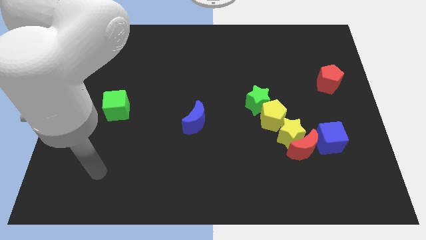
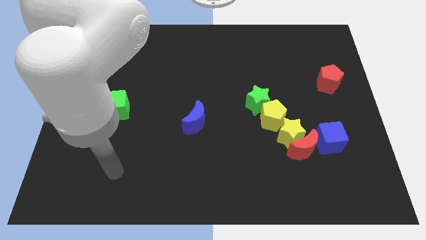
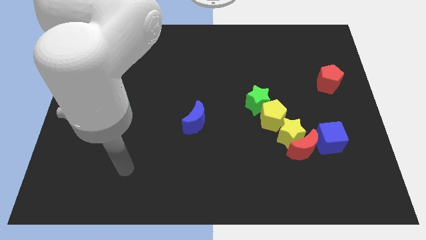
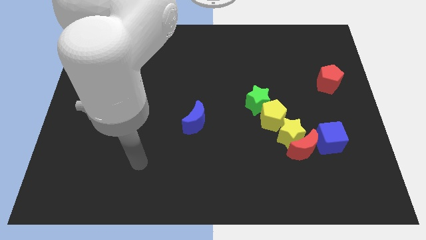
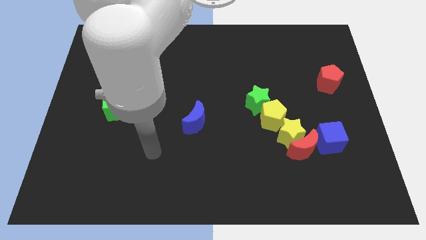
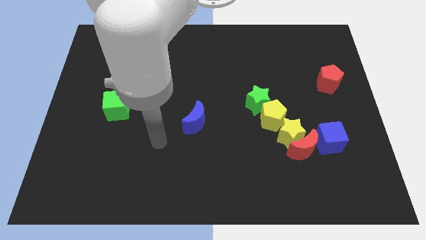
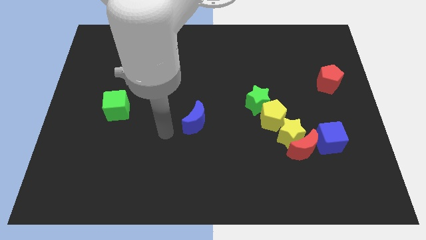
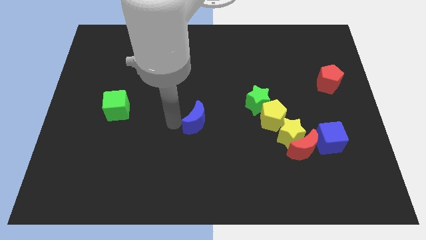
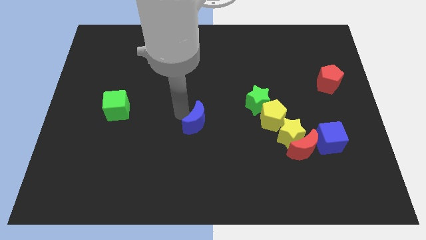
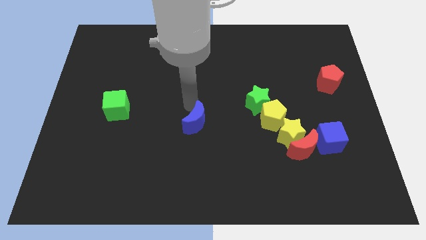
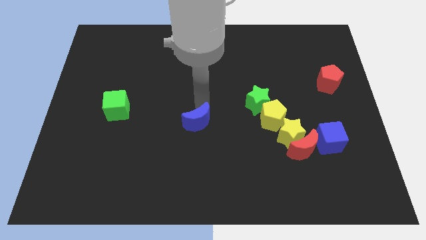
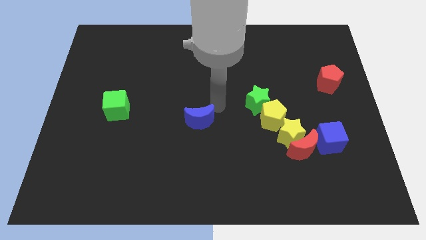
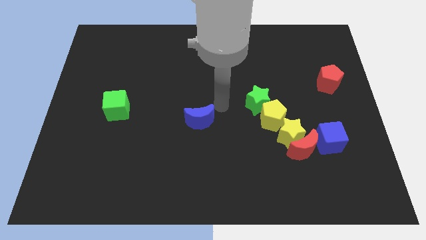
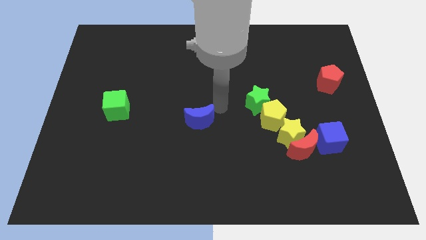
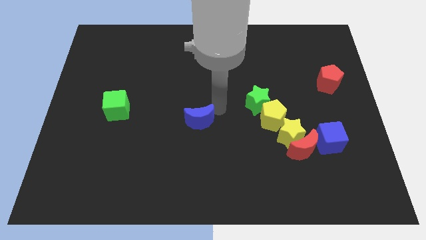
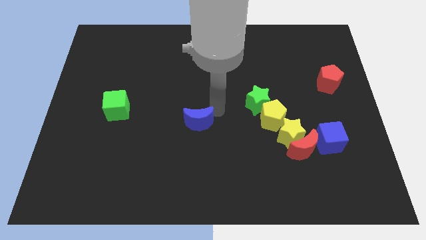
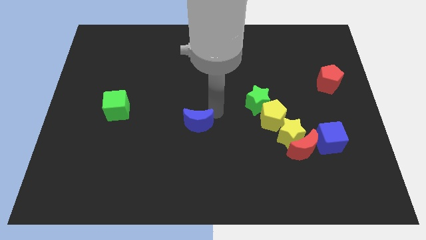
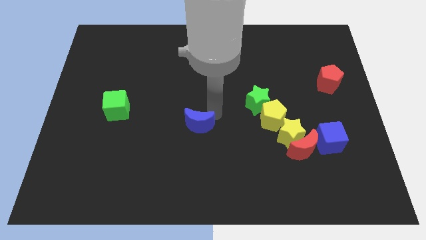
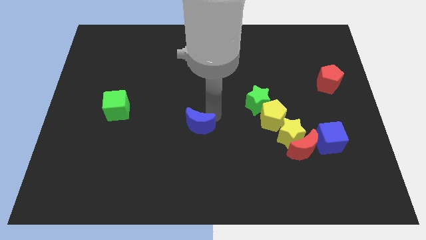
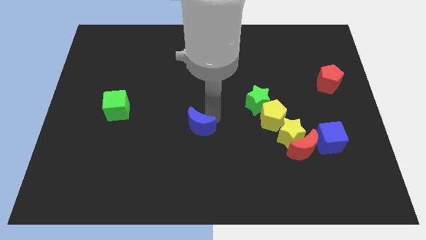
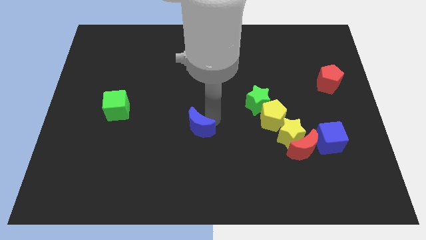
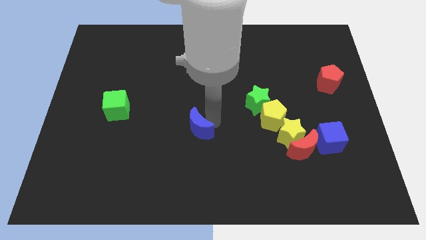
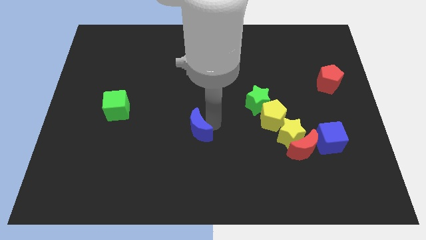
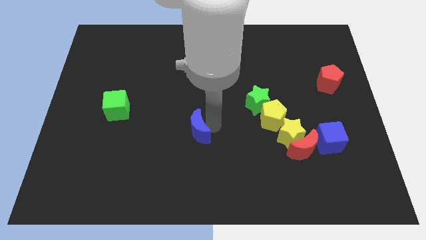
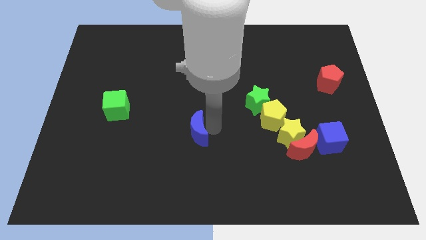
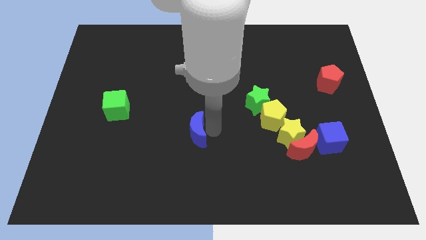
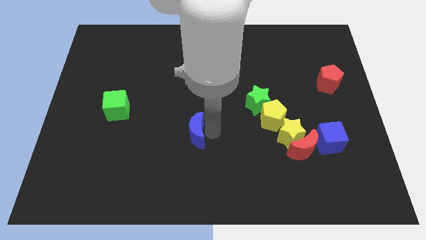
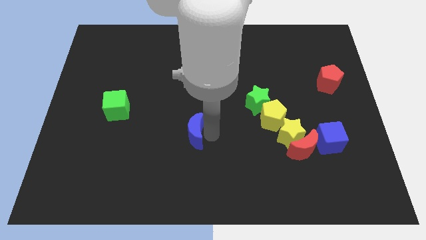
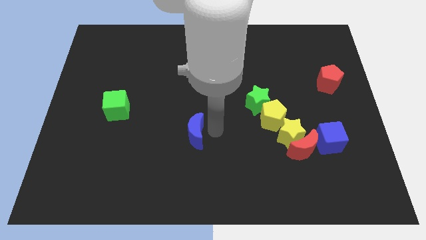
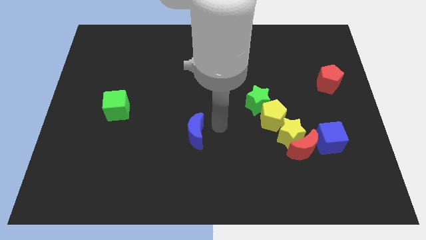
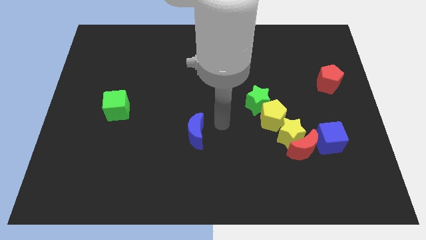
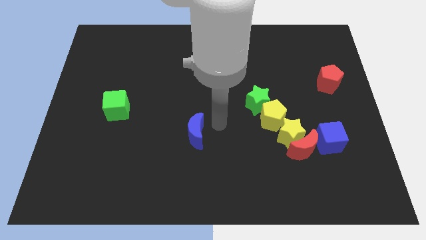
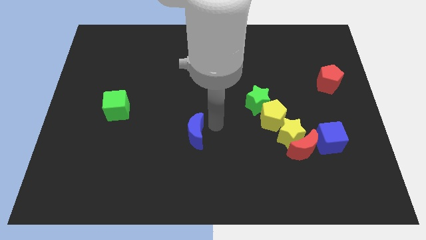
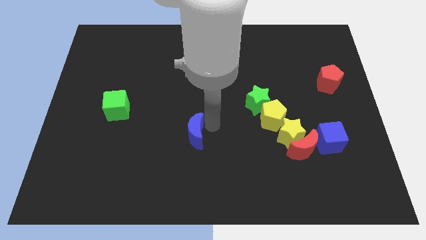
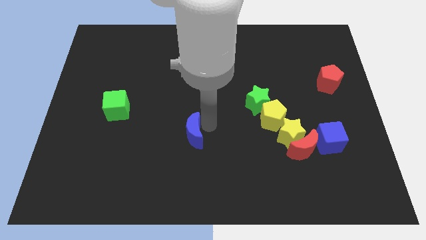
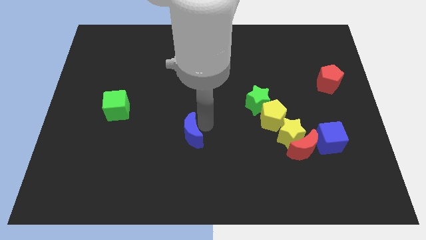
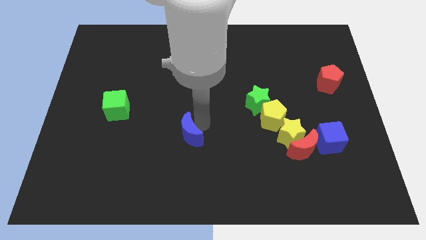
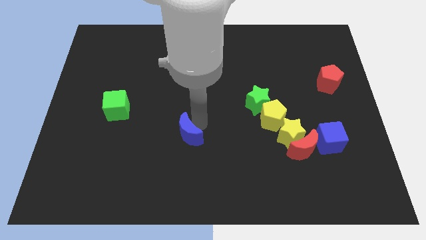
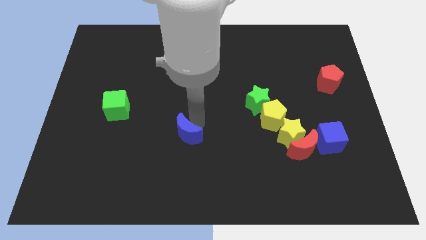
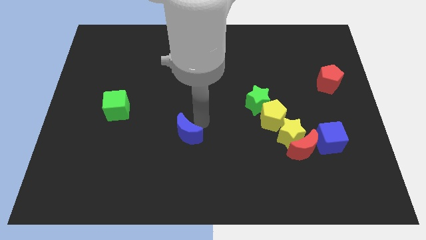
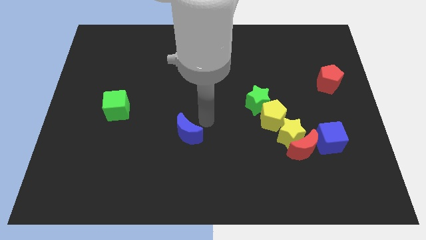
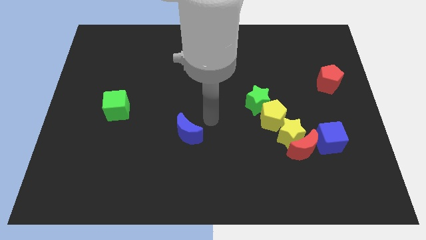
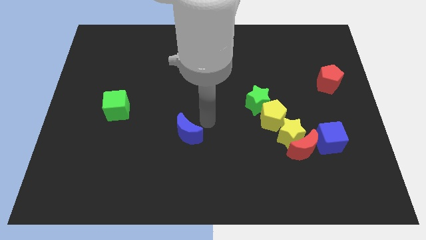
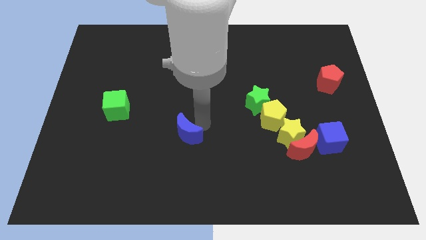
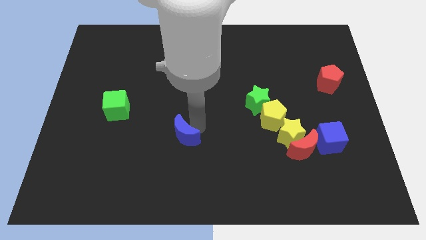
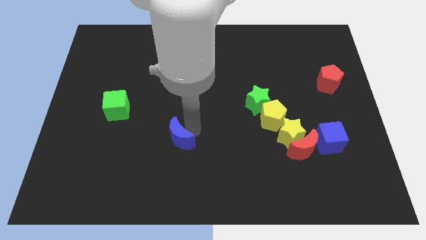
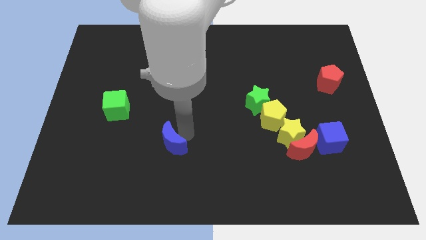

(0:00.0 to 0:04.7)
push the blue moon downwards and to the left a little

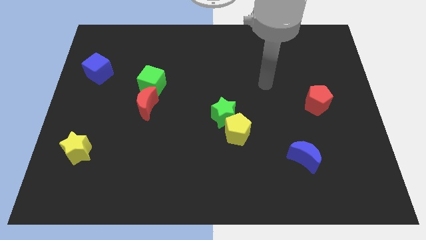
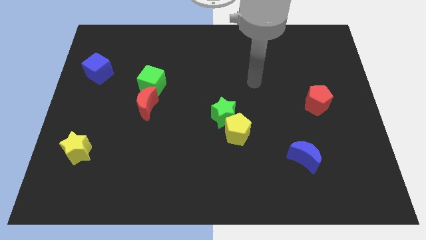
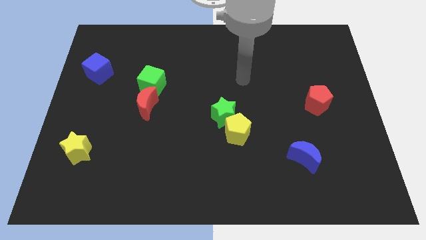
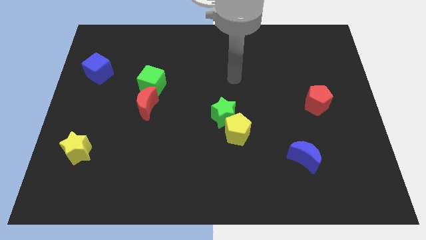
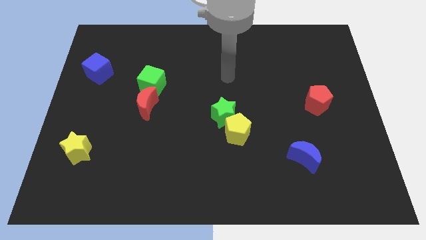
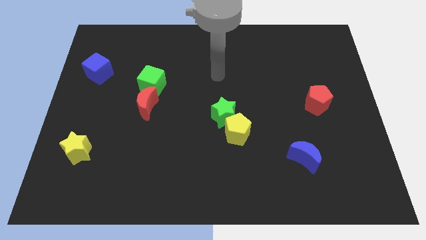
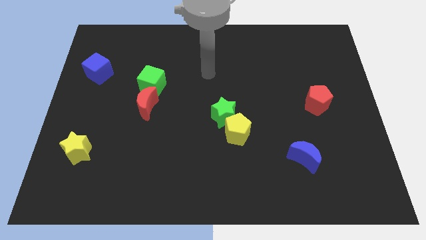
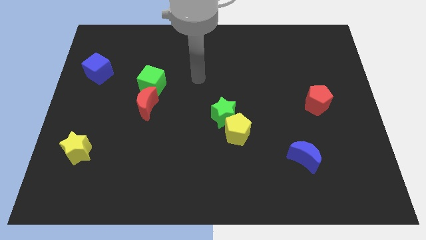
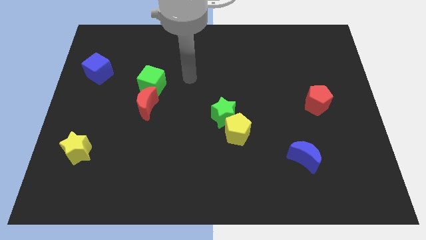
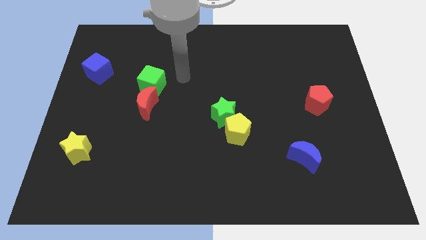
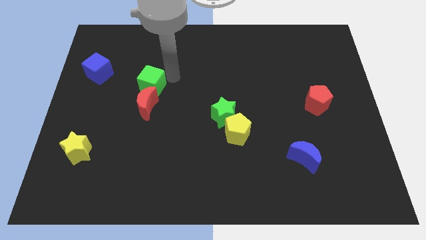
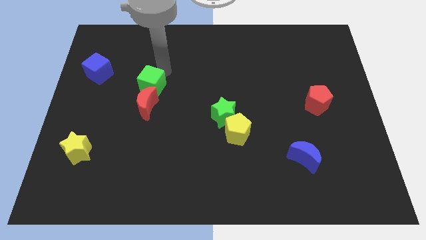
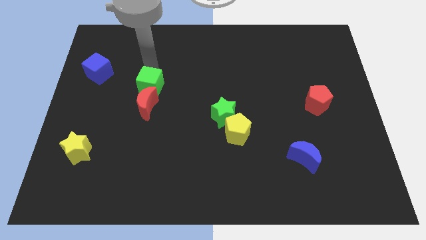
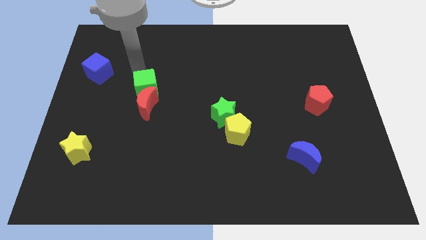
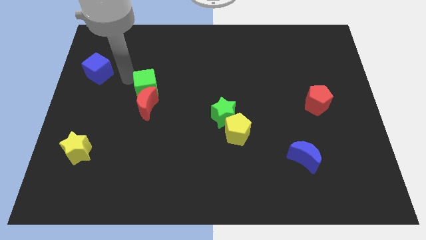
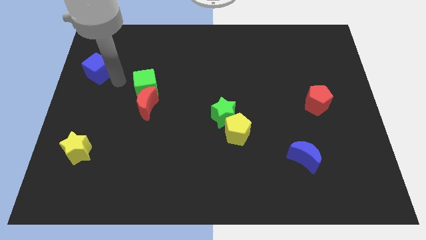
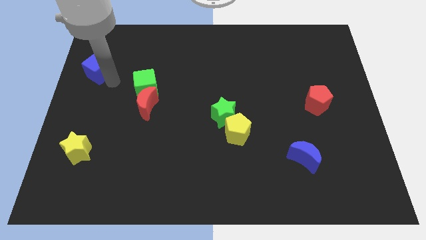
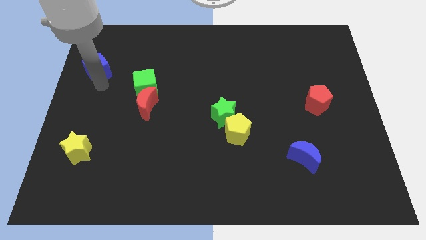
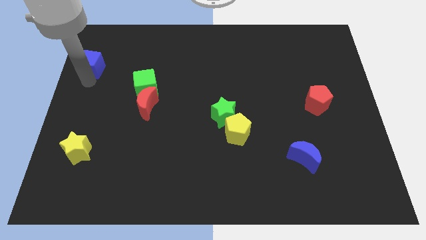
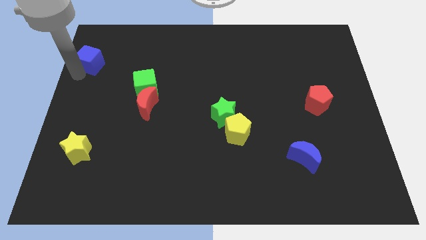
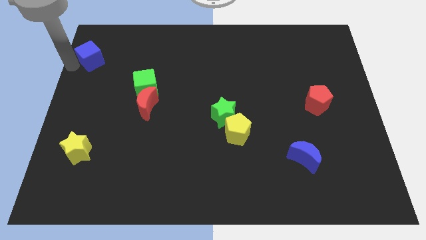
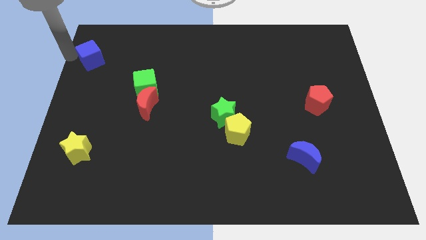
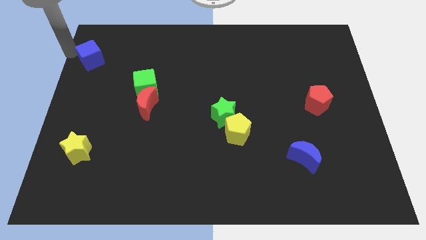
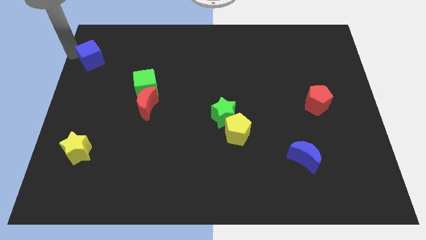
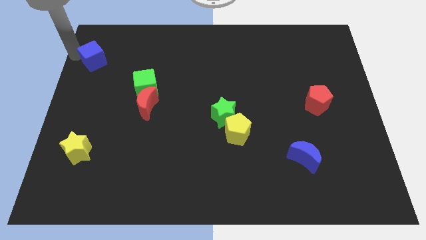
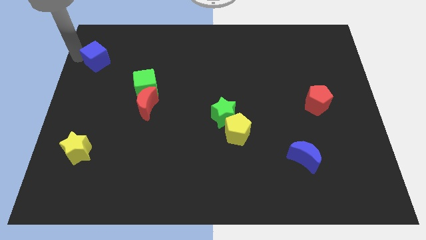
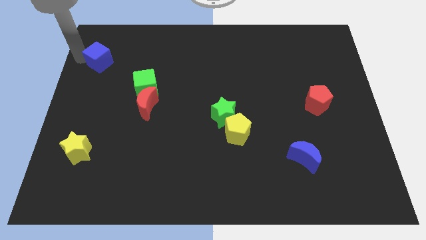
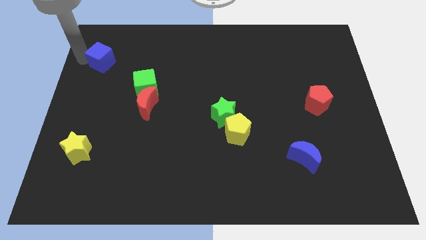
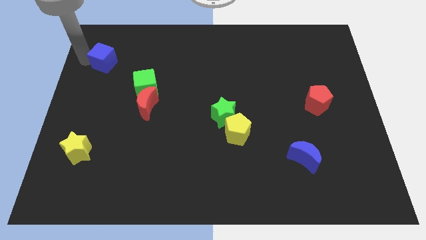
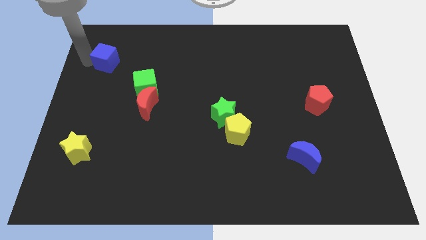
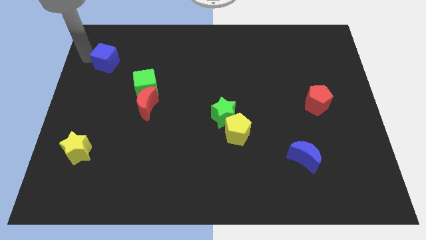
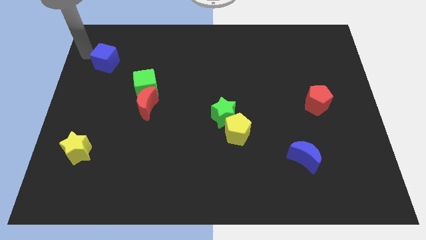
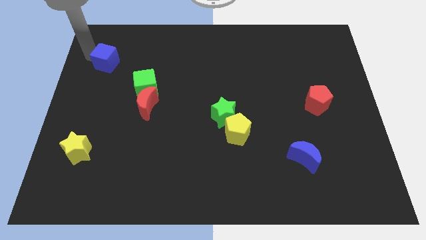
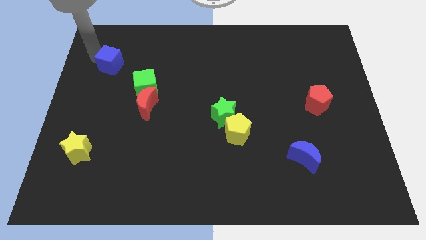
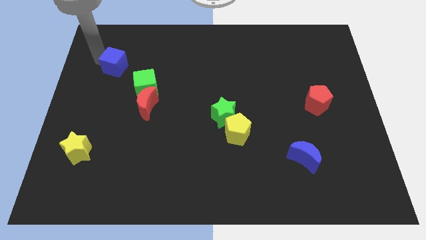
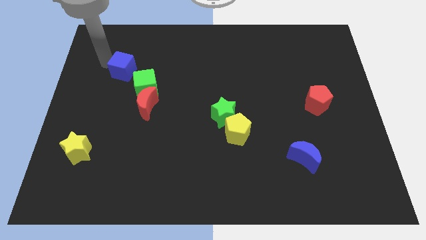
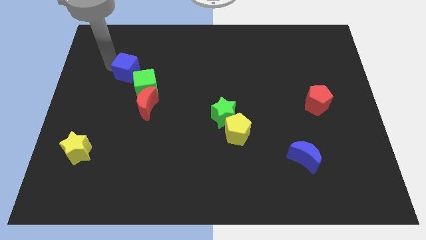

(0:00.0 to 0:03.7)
push the blue cube slightly right
